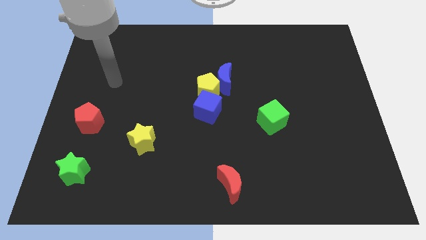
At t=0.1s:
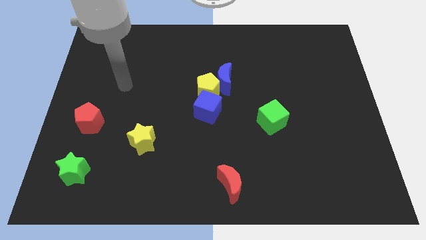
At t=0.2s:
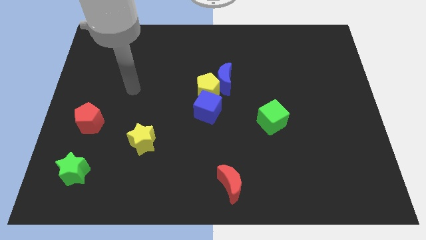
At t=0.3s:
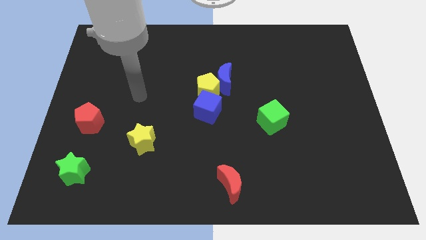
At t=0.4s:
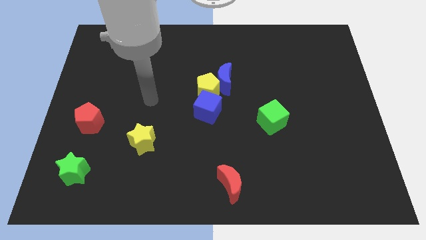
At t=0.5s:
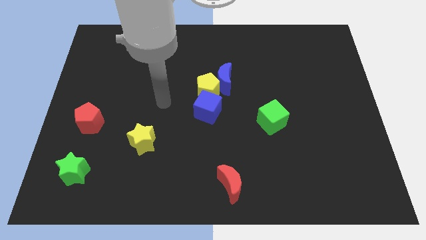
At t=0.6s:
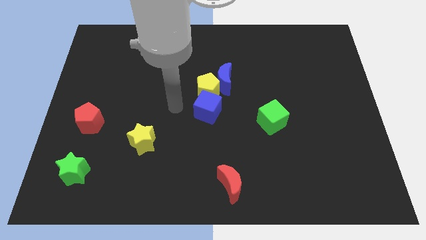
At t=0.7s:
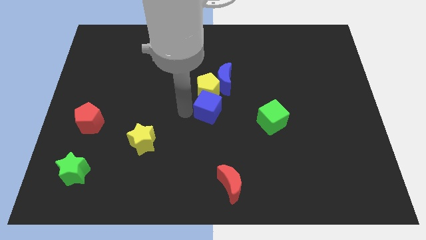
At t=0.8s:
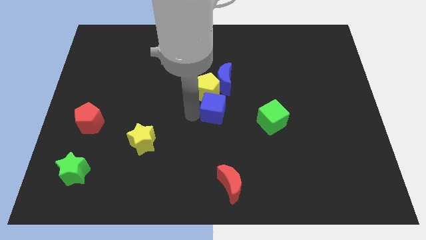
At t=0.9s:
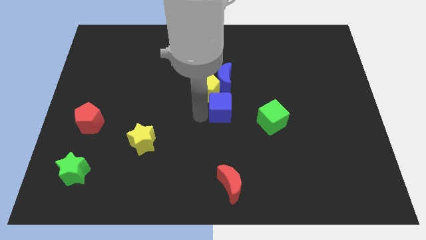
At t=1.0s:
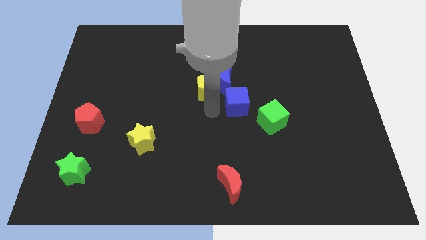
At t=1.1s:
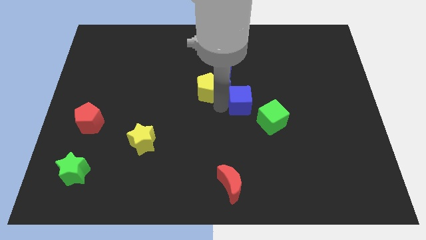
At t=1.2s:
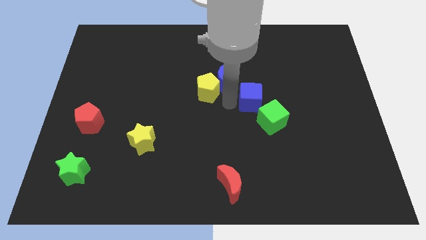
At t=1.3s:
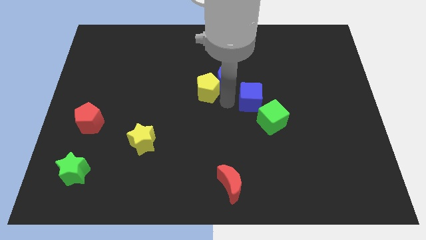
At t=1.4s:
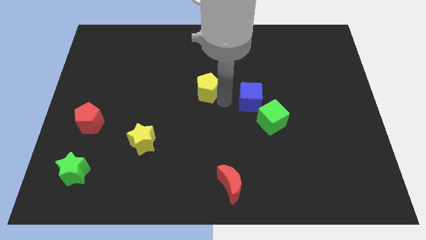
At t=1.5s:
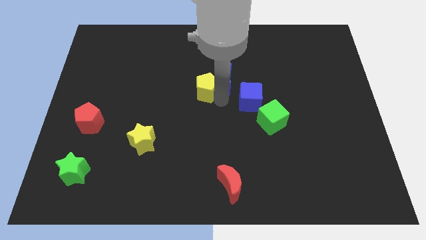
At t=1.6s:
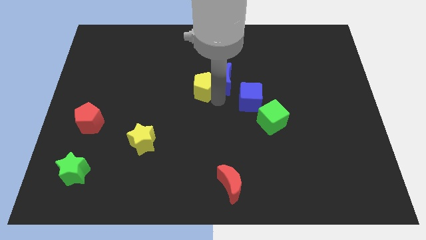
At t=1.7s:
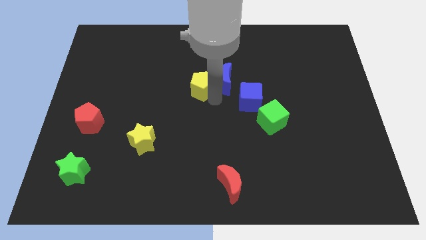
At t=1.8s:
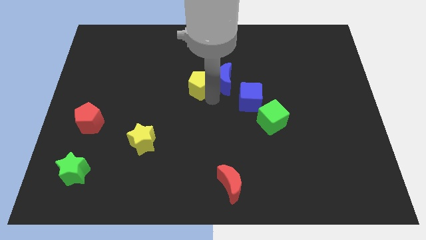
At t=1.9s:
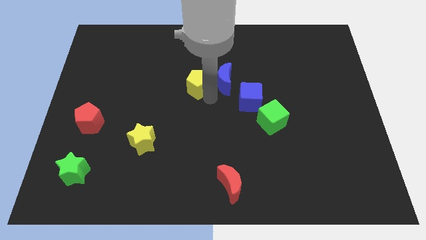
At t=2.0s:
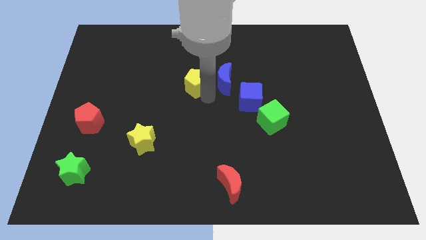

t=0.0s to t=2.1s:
move the yellow pentagon away from the blue moon and blue cube

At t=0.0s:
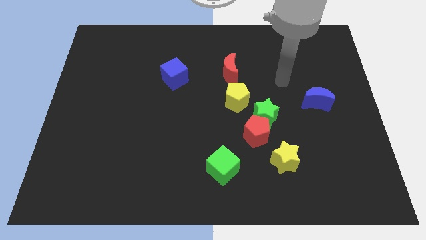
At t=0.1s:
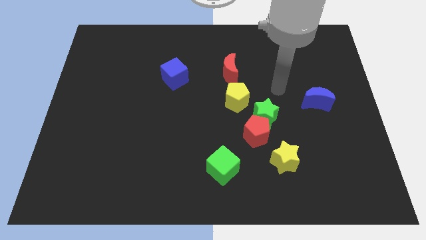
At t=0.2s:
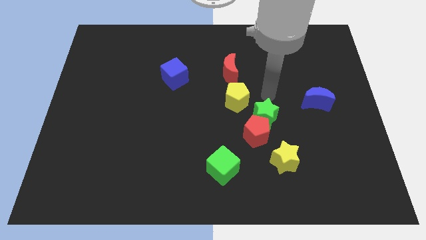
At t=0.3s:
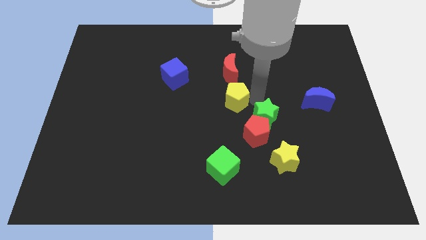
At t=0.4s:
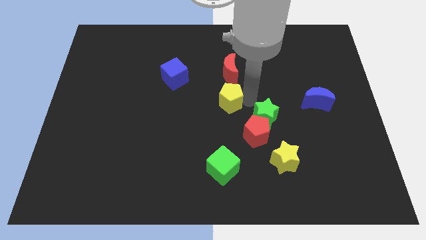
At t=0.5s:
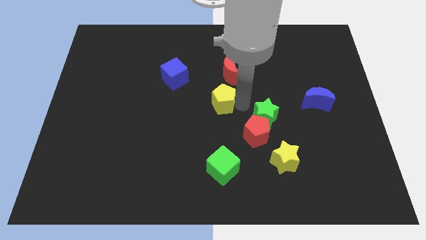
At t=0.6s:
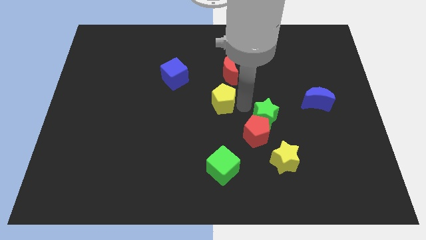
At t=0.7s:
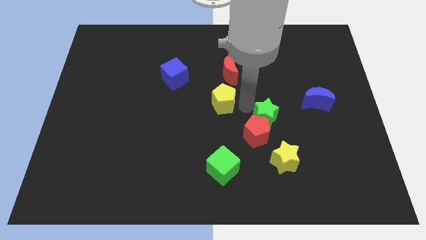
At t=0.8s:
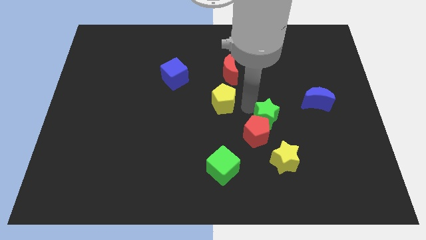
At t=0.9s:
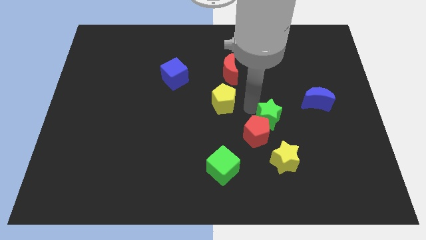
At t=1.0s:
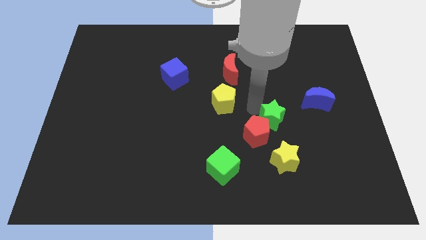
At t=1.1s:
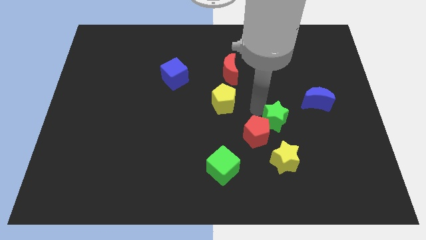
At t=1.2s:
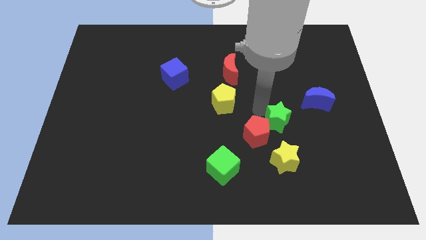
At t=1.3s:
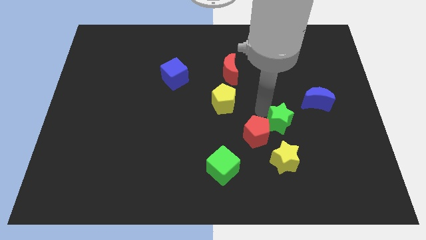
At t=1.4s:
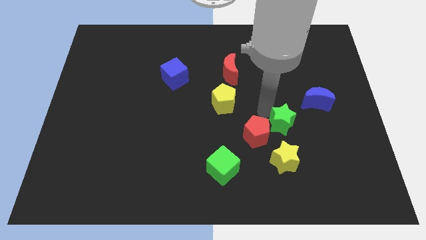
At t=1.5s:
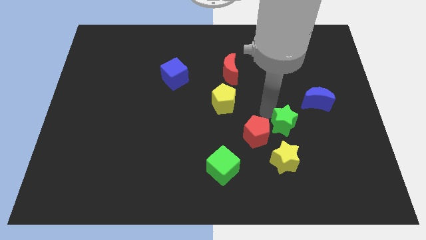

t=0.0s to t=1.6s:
separate the green star from the red pentagon and yellow pentagon

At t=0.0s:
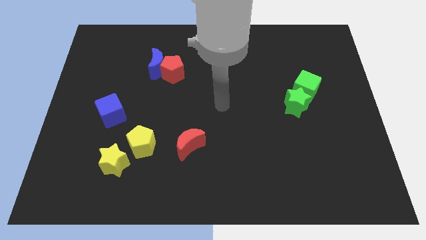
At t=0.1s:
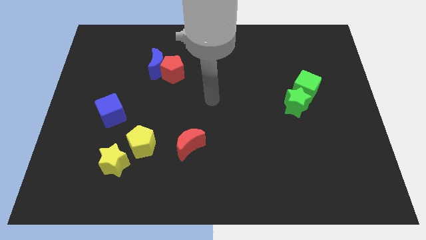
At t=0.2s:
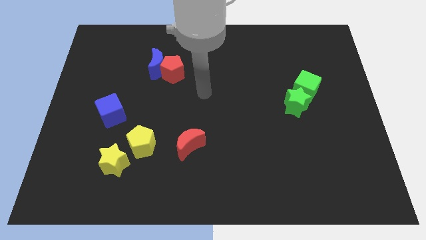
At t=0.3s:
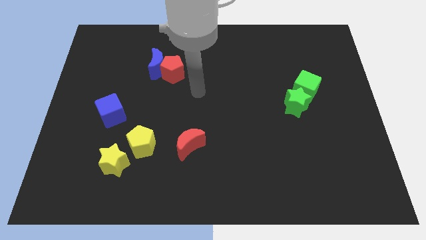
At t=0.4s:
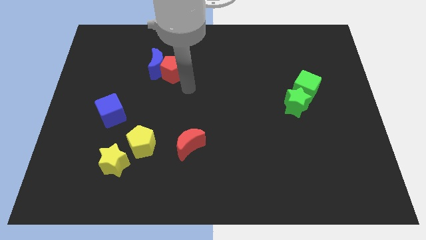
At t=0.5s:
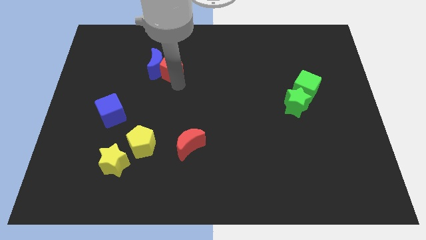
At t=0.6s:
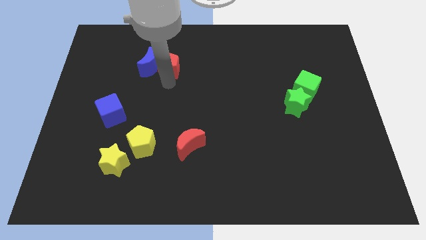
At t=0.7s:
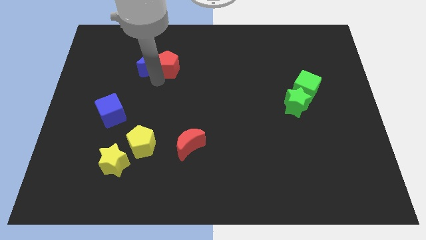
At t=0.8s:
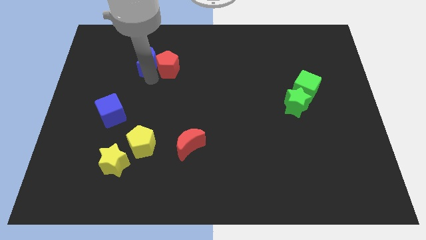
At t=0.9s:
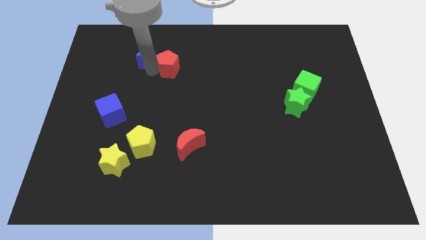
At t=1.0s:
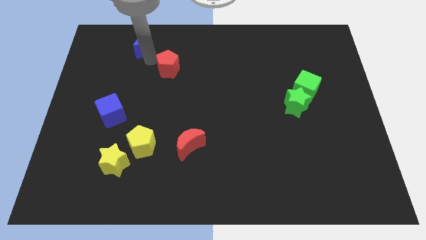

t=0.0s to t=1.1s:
move the red pentagon away from the blue moon

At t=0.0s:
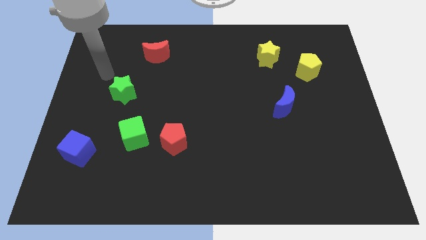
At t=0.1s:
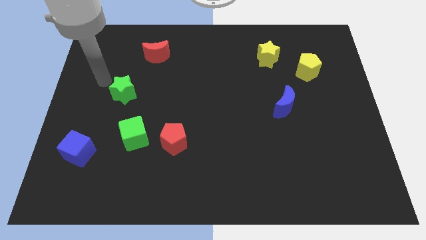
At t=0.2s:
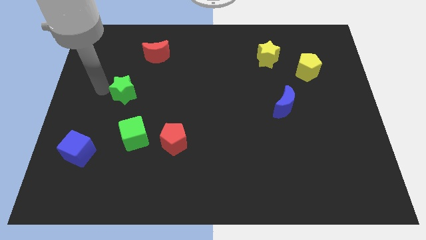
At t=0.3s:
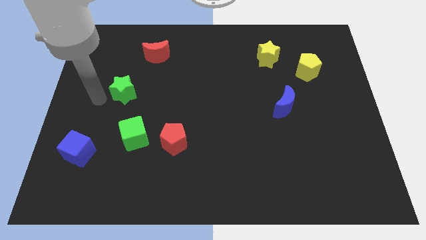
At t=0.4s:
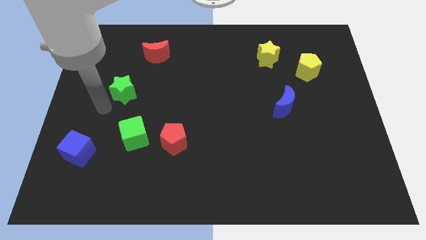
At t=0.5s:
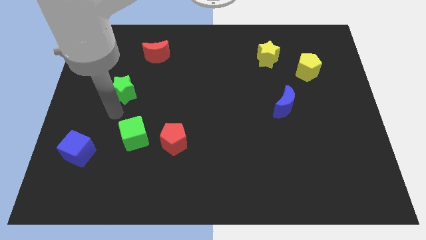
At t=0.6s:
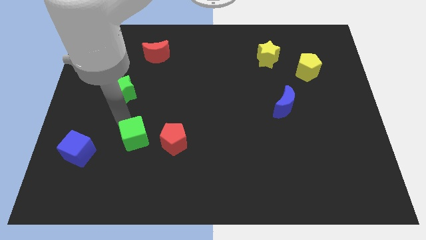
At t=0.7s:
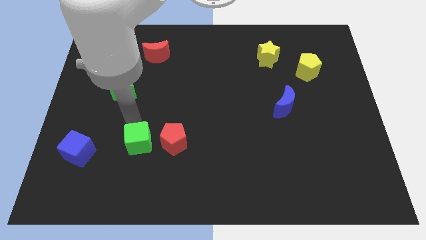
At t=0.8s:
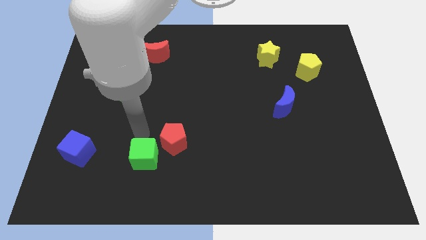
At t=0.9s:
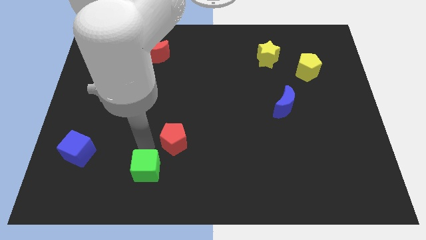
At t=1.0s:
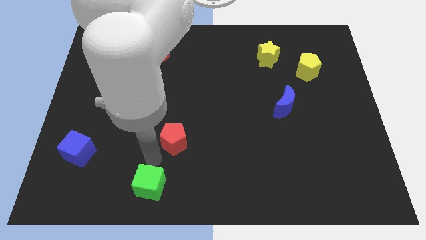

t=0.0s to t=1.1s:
separate the red pentagon from the green cube

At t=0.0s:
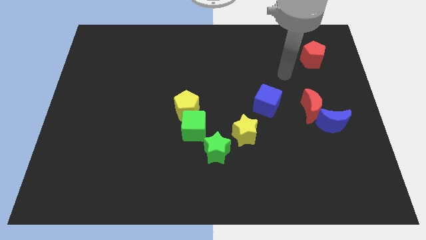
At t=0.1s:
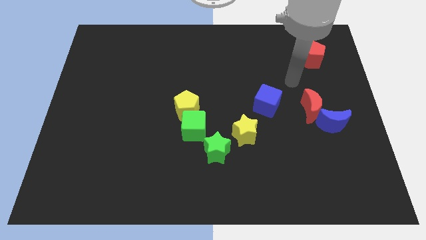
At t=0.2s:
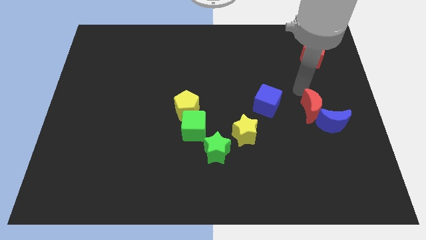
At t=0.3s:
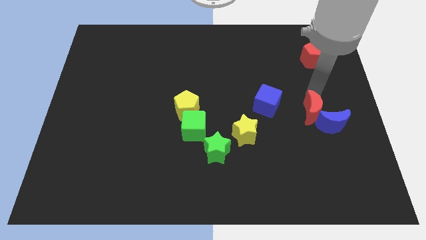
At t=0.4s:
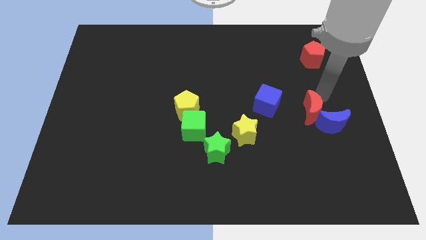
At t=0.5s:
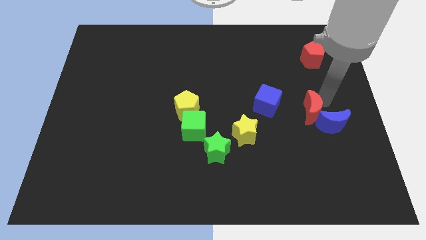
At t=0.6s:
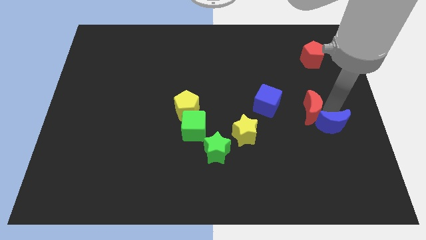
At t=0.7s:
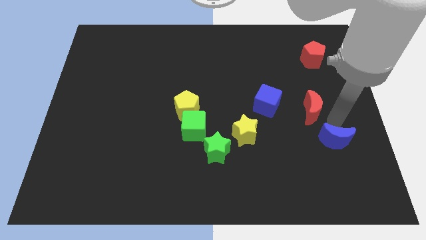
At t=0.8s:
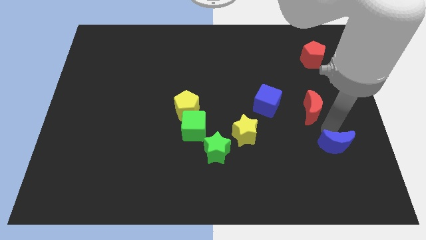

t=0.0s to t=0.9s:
pull the red moon apart from the blue moon

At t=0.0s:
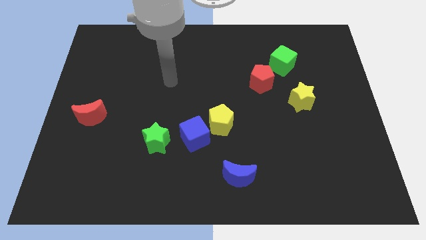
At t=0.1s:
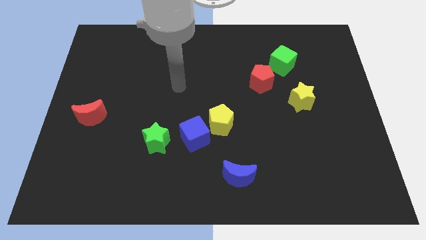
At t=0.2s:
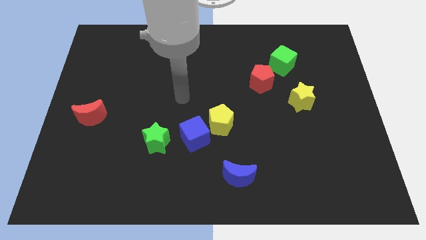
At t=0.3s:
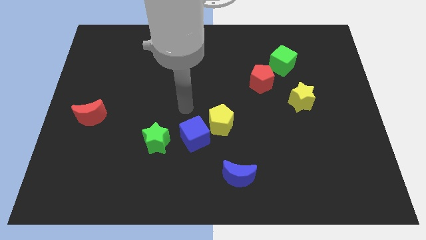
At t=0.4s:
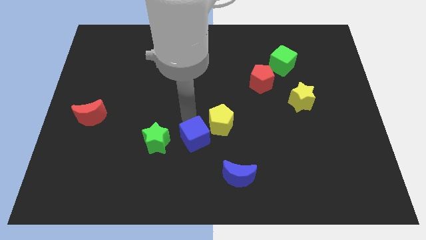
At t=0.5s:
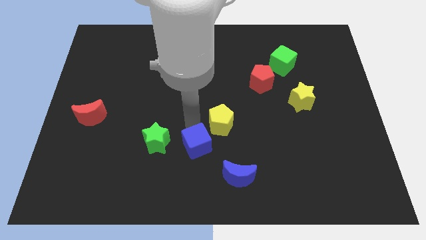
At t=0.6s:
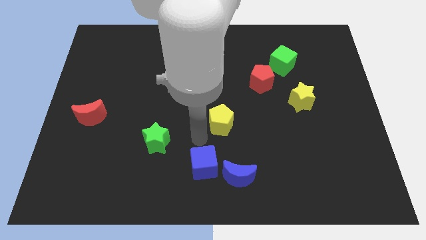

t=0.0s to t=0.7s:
separate the yellow pentagon from the blue cube

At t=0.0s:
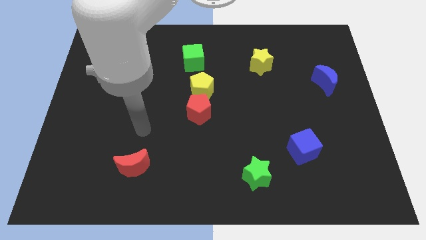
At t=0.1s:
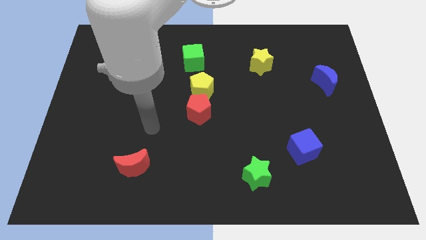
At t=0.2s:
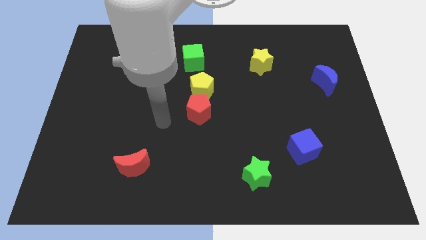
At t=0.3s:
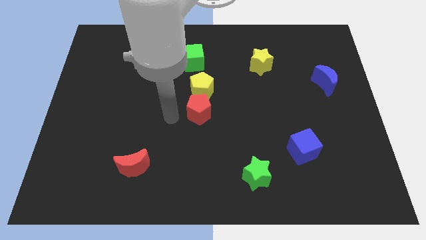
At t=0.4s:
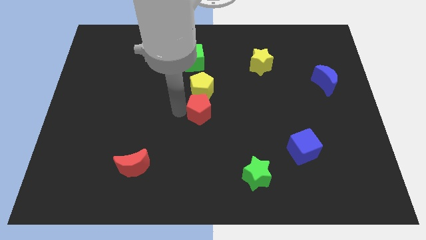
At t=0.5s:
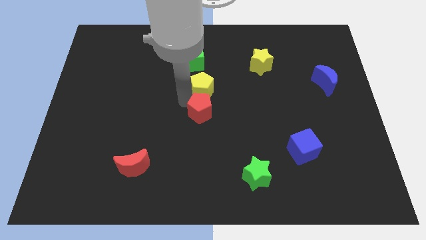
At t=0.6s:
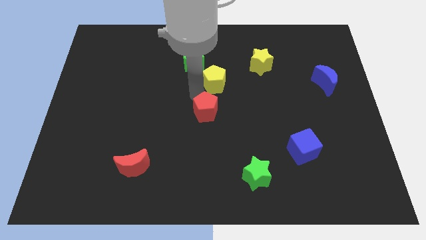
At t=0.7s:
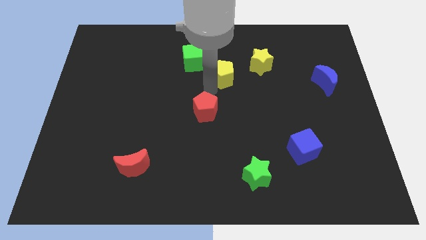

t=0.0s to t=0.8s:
separate the red pentagon from the yellow pentagon

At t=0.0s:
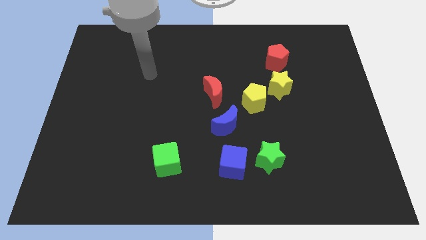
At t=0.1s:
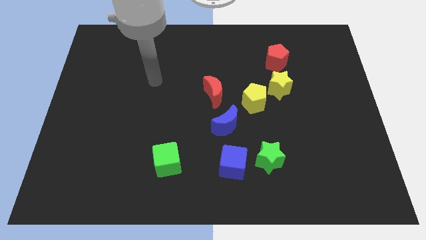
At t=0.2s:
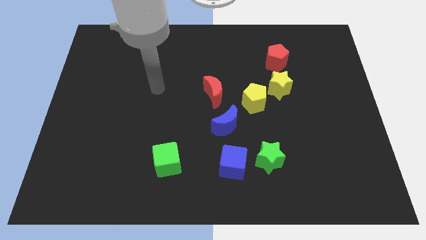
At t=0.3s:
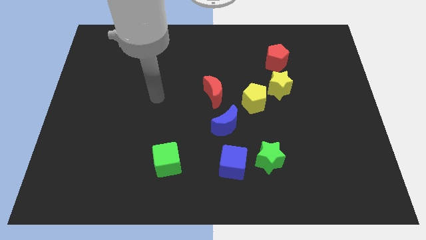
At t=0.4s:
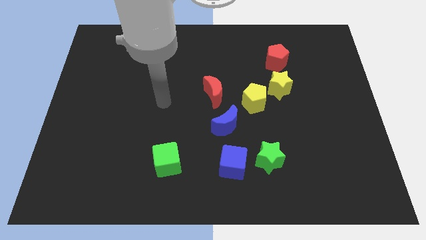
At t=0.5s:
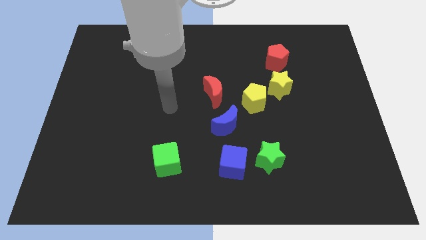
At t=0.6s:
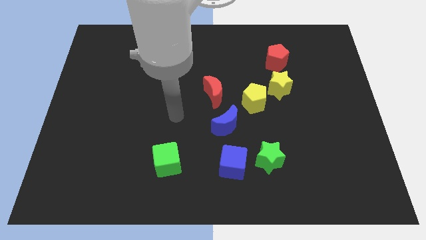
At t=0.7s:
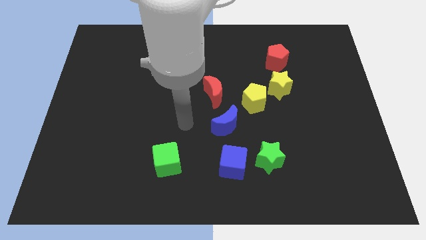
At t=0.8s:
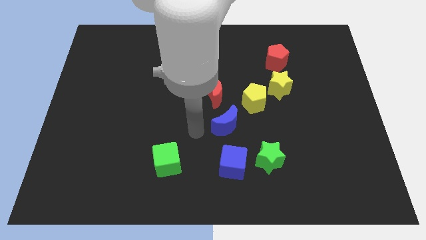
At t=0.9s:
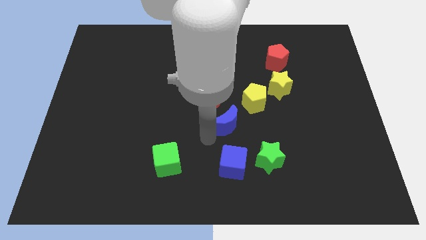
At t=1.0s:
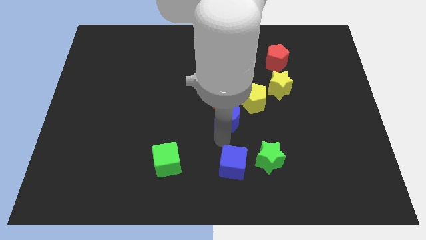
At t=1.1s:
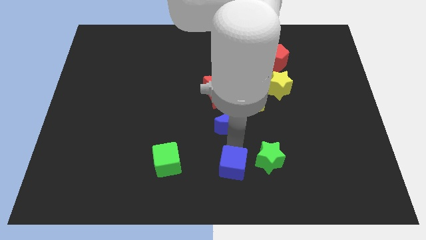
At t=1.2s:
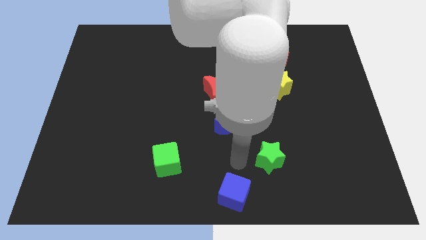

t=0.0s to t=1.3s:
separate the green star from the blue cube
